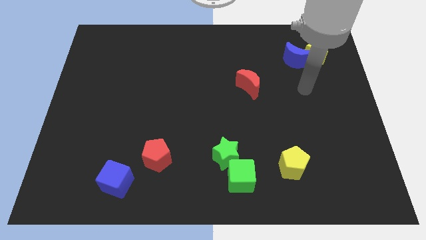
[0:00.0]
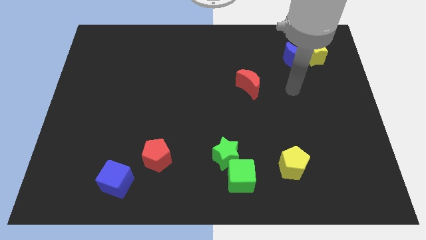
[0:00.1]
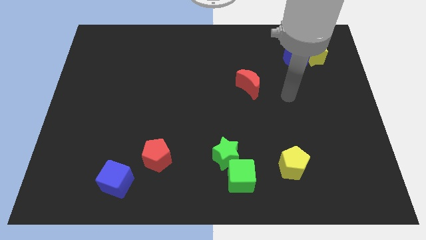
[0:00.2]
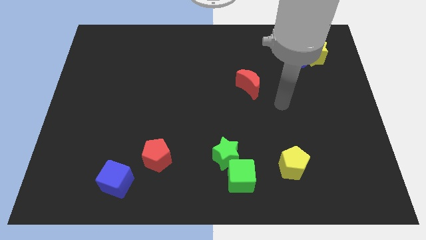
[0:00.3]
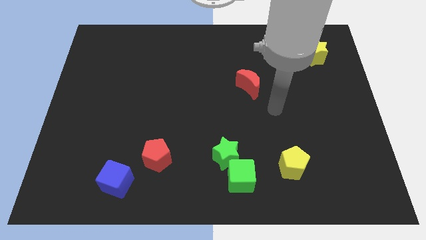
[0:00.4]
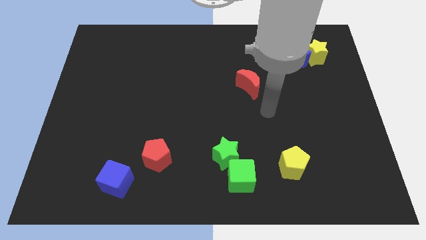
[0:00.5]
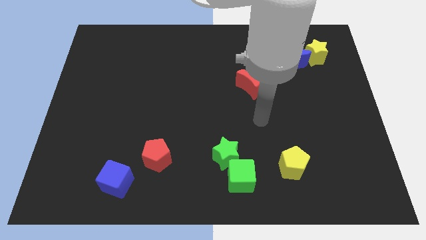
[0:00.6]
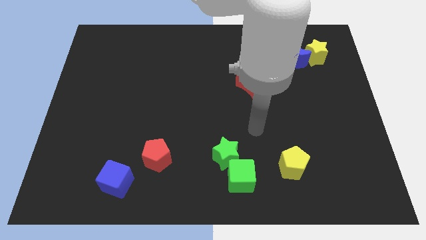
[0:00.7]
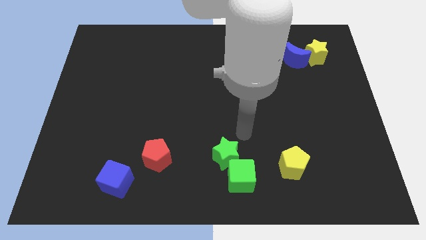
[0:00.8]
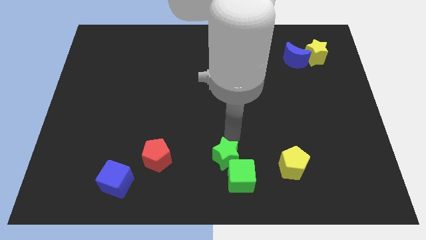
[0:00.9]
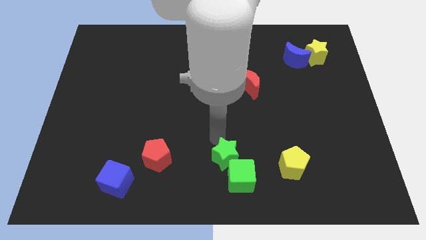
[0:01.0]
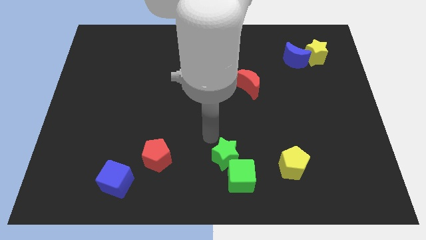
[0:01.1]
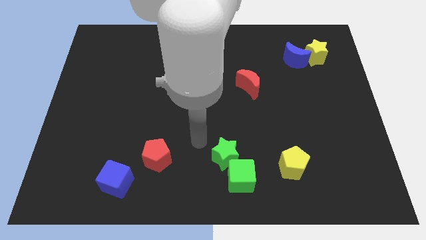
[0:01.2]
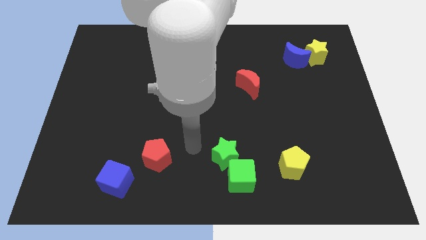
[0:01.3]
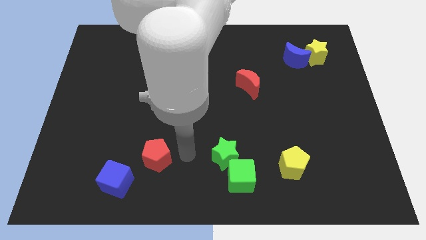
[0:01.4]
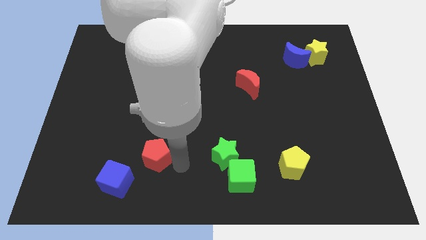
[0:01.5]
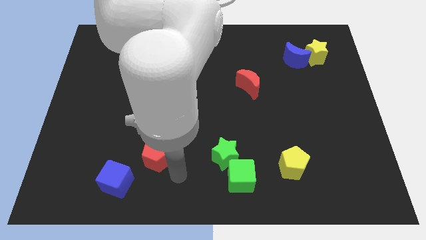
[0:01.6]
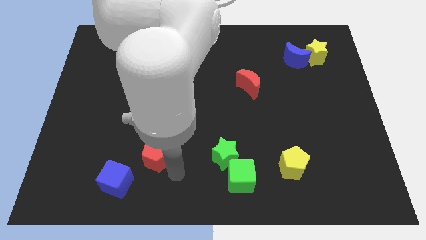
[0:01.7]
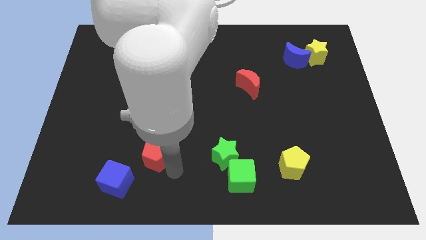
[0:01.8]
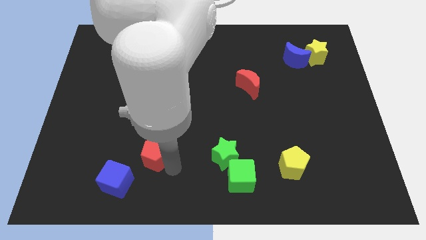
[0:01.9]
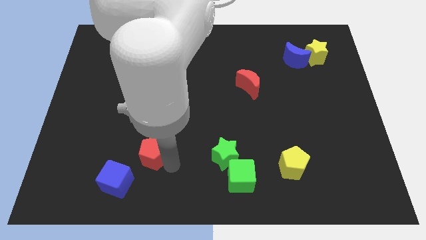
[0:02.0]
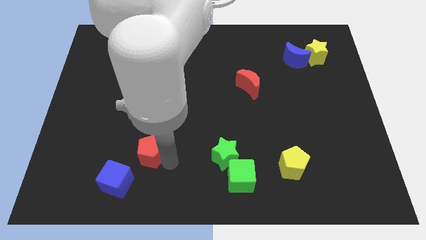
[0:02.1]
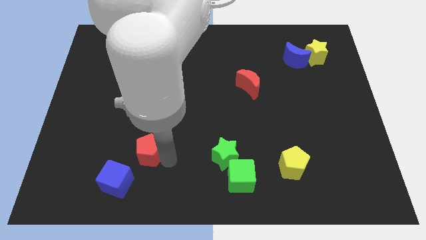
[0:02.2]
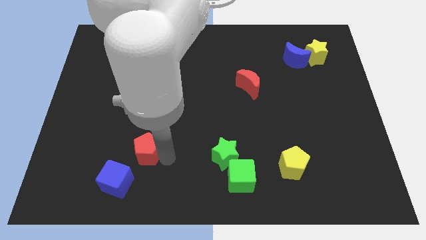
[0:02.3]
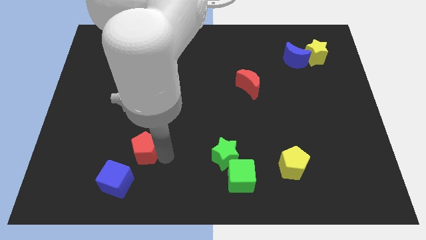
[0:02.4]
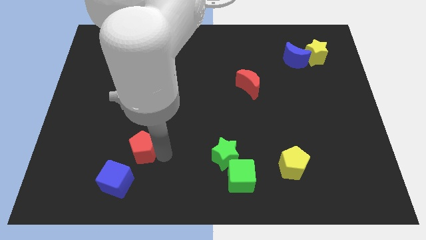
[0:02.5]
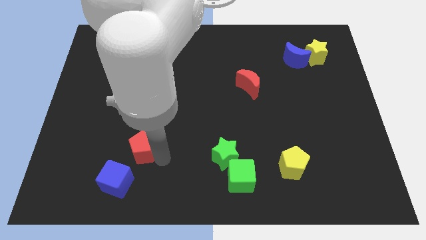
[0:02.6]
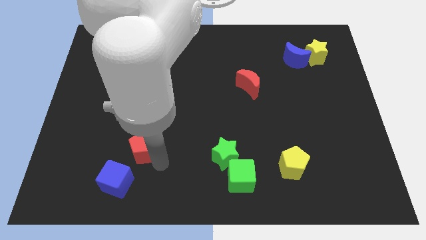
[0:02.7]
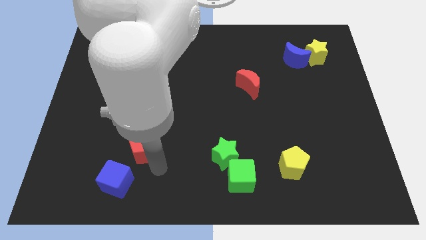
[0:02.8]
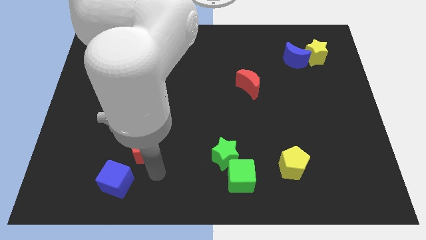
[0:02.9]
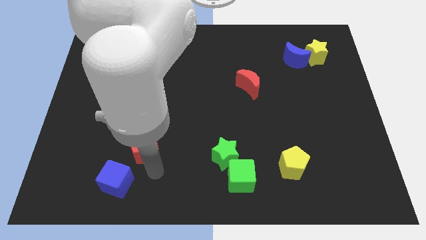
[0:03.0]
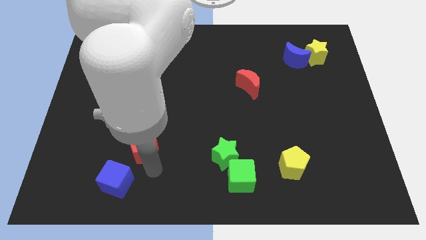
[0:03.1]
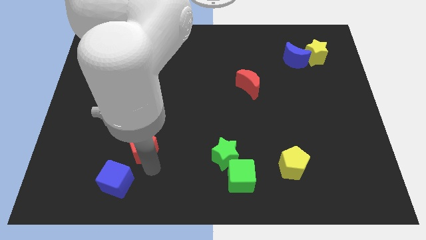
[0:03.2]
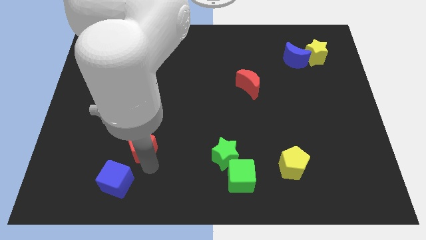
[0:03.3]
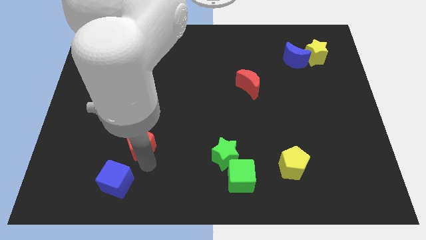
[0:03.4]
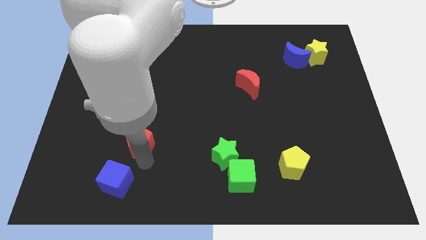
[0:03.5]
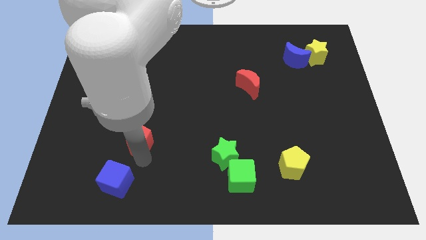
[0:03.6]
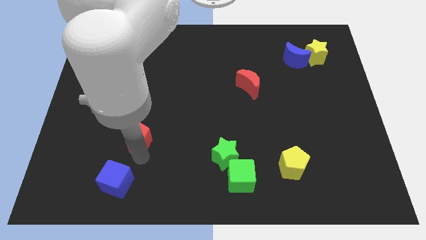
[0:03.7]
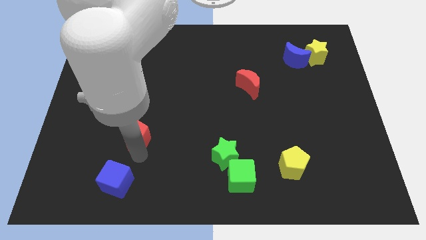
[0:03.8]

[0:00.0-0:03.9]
slightly slide the red pentagon up and to the left

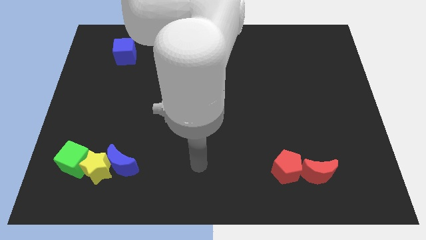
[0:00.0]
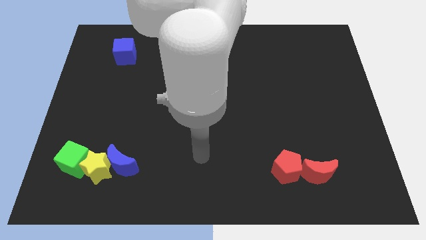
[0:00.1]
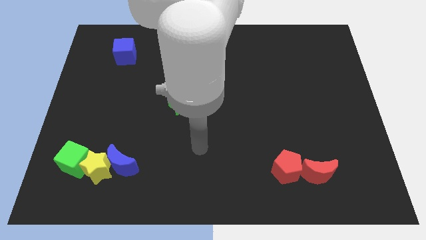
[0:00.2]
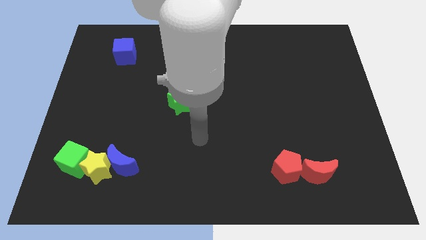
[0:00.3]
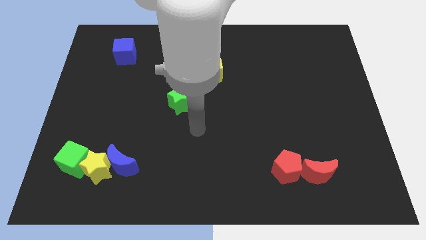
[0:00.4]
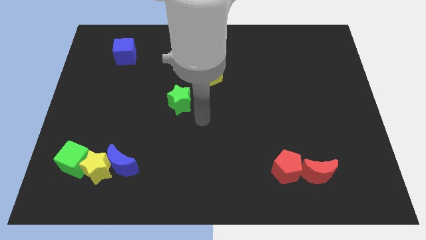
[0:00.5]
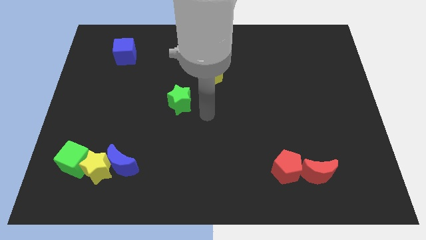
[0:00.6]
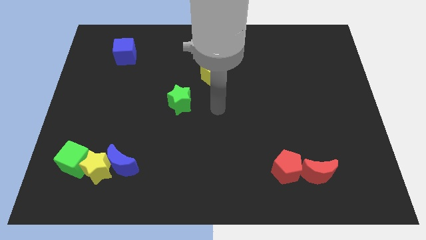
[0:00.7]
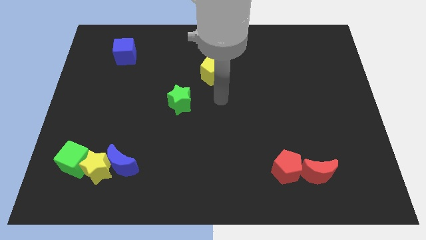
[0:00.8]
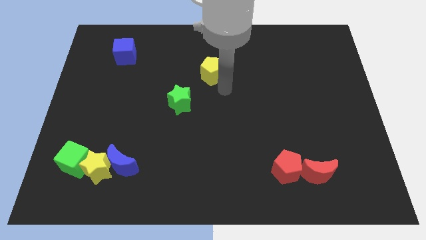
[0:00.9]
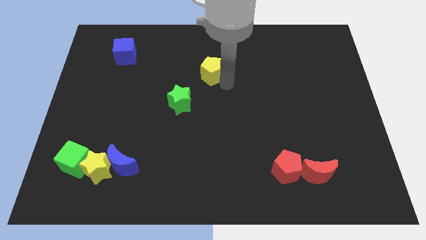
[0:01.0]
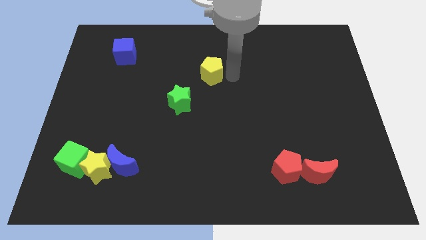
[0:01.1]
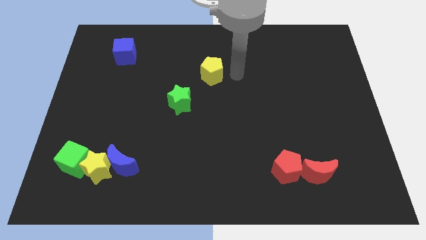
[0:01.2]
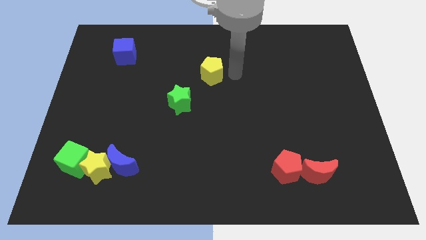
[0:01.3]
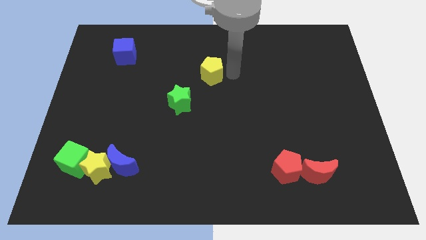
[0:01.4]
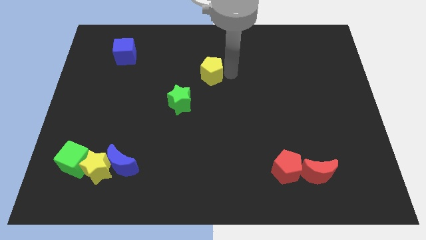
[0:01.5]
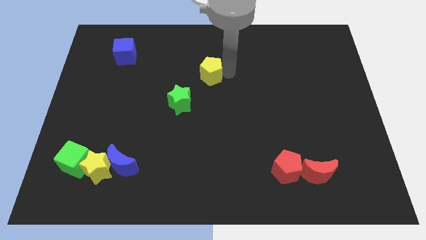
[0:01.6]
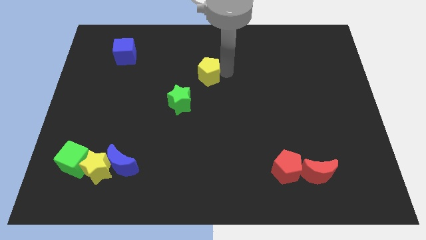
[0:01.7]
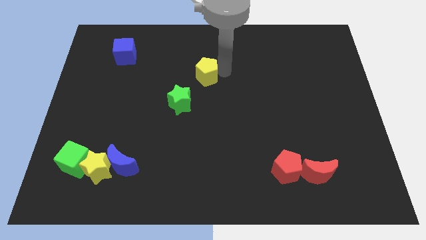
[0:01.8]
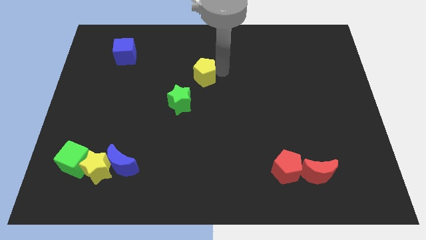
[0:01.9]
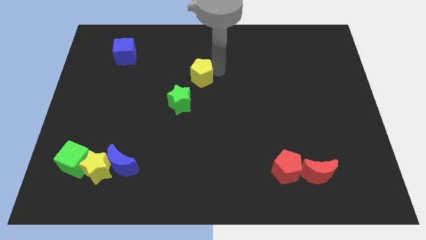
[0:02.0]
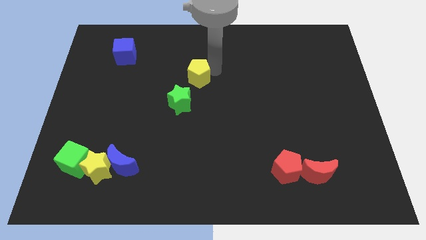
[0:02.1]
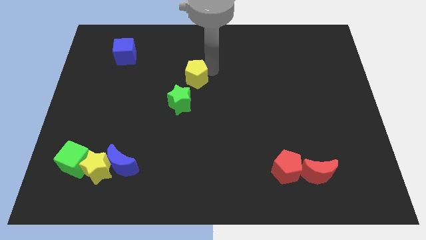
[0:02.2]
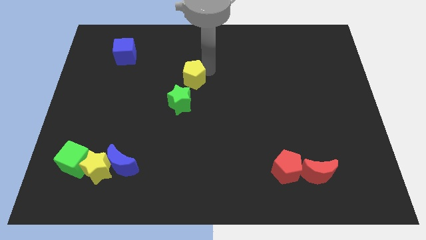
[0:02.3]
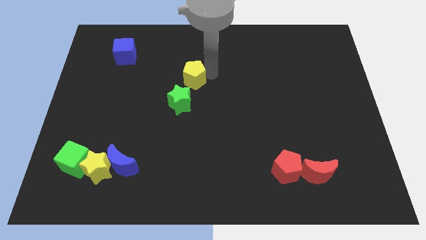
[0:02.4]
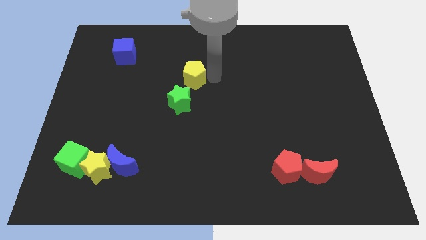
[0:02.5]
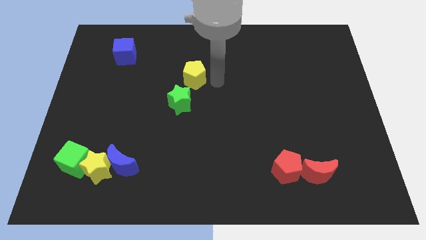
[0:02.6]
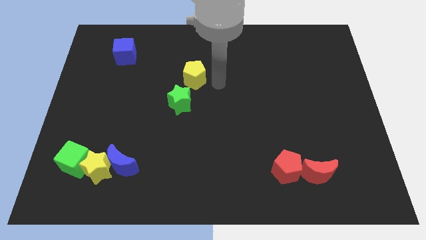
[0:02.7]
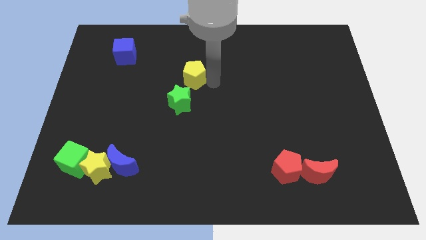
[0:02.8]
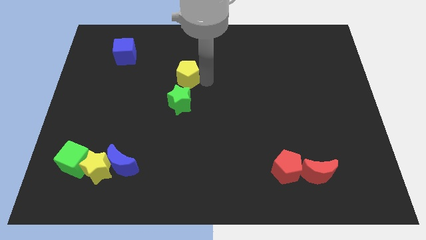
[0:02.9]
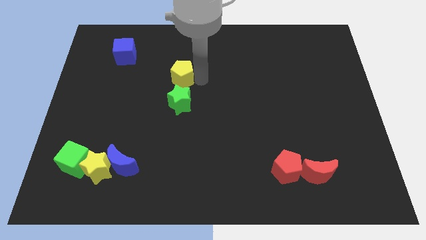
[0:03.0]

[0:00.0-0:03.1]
push the yellow pentagon to the left a bit

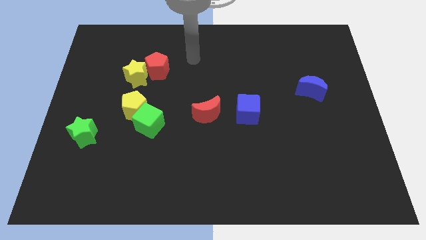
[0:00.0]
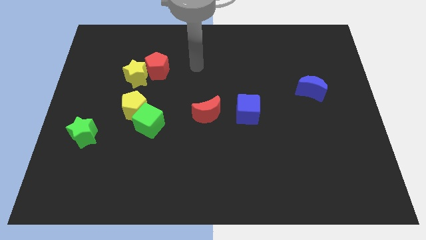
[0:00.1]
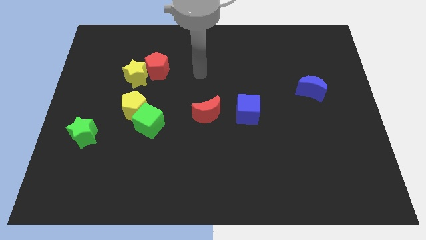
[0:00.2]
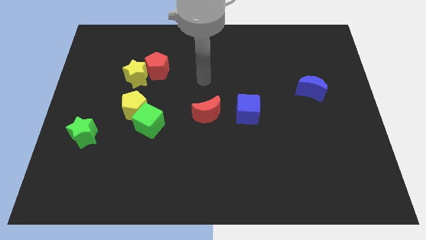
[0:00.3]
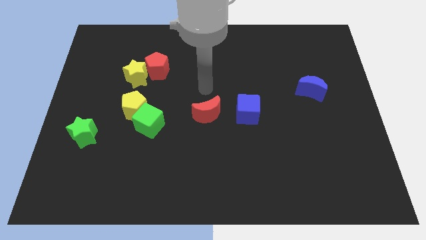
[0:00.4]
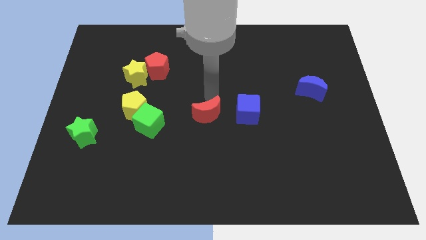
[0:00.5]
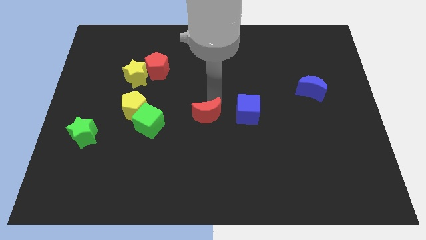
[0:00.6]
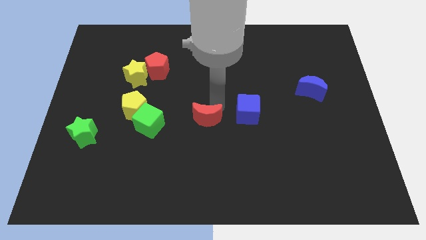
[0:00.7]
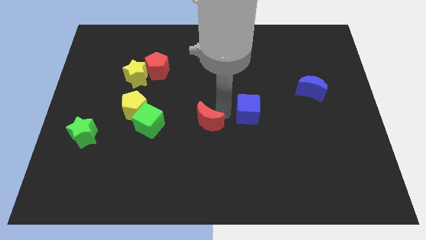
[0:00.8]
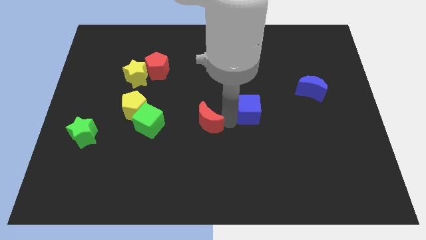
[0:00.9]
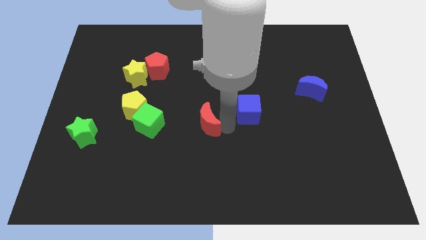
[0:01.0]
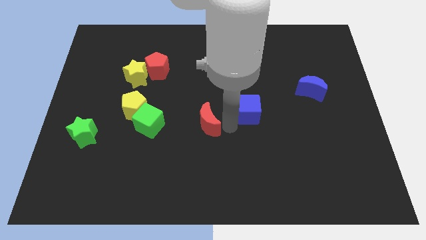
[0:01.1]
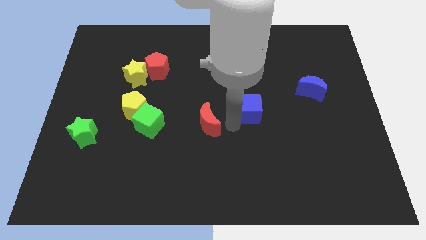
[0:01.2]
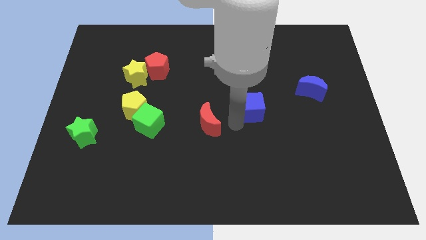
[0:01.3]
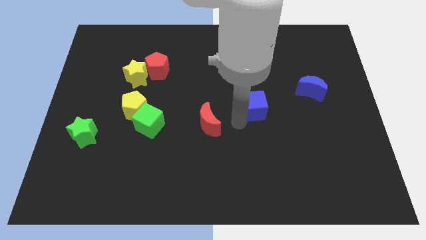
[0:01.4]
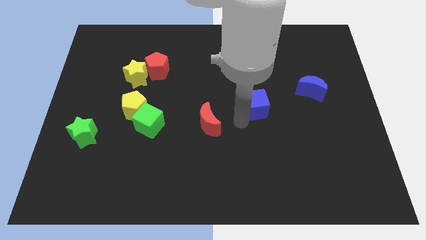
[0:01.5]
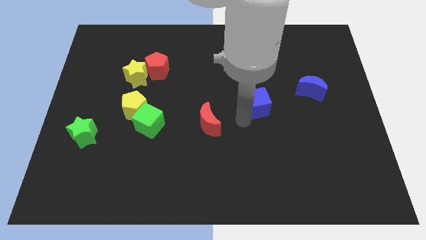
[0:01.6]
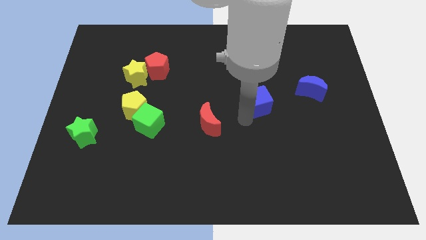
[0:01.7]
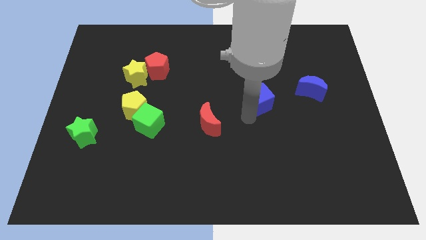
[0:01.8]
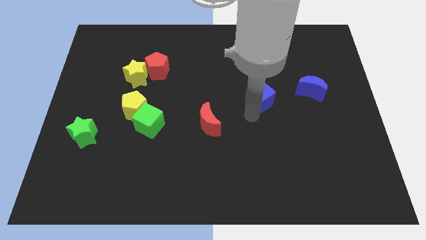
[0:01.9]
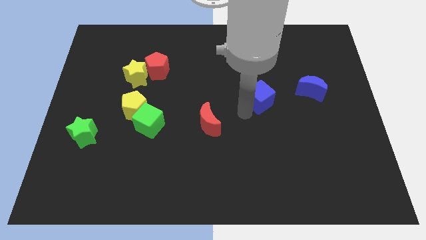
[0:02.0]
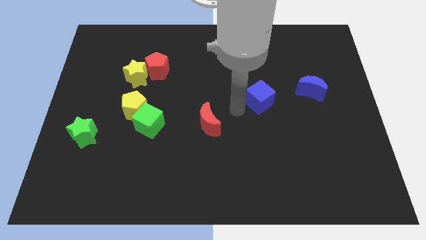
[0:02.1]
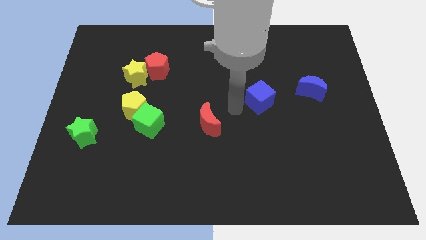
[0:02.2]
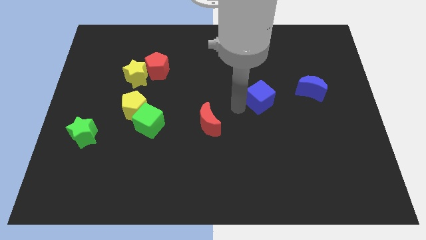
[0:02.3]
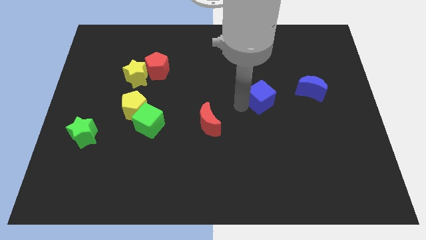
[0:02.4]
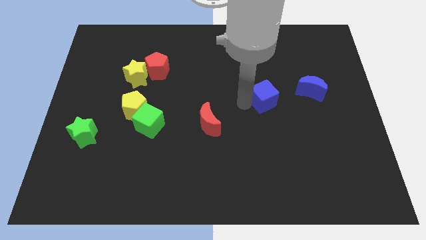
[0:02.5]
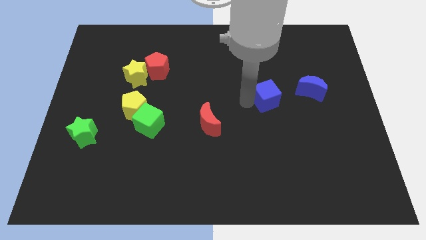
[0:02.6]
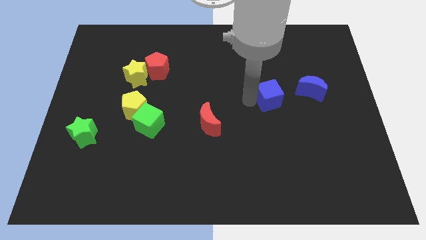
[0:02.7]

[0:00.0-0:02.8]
slide the blue cube upwards and then right a little bit
